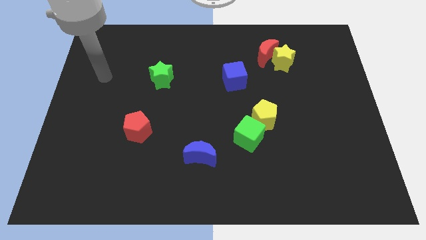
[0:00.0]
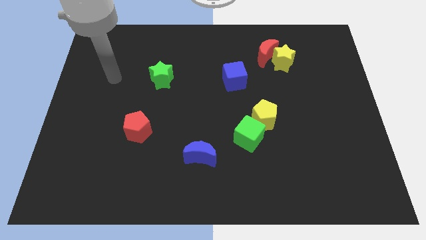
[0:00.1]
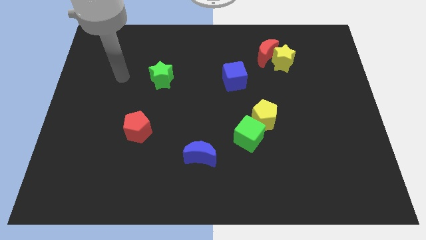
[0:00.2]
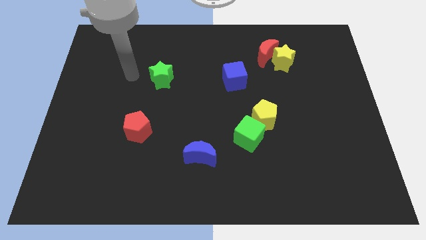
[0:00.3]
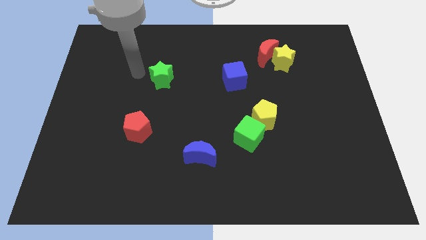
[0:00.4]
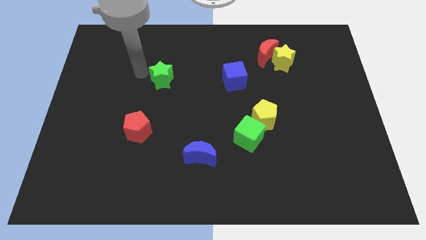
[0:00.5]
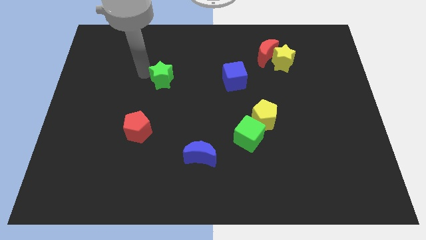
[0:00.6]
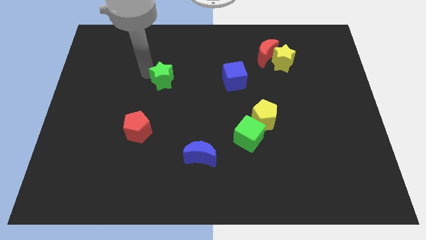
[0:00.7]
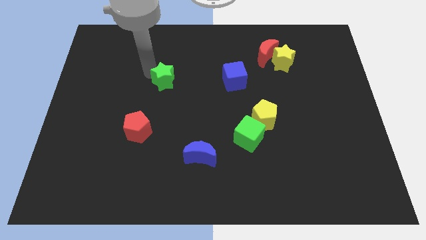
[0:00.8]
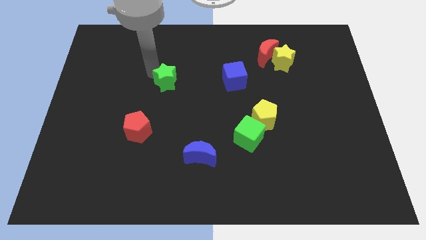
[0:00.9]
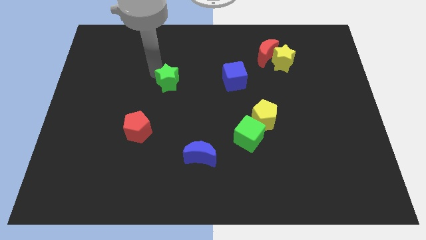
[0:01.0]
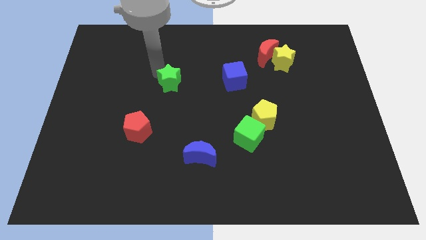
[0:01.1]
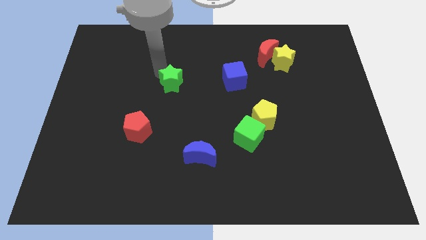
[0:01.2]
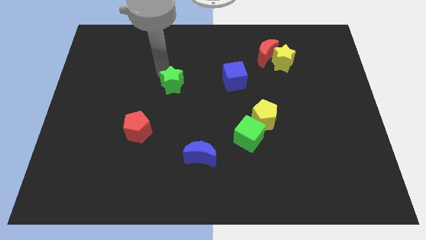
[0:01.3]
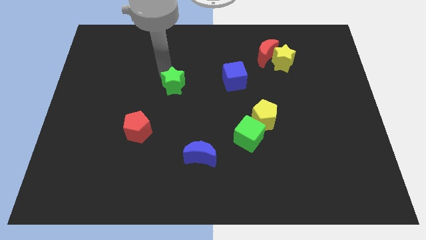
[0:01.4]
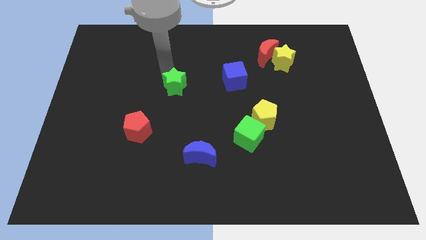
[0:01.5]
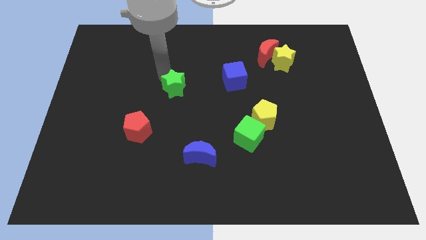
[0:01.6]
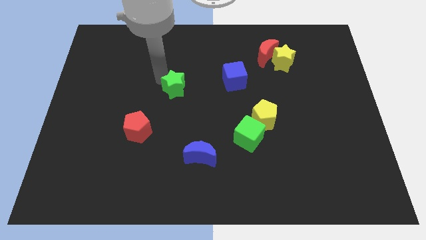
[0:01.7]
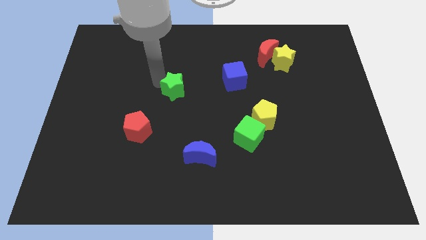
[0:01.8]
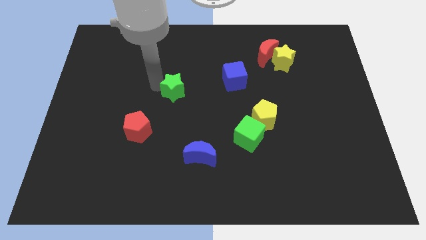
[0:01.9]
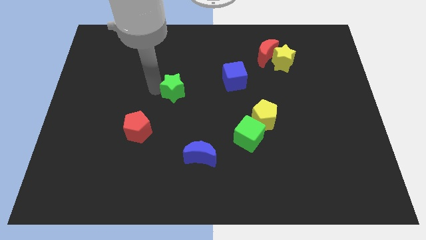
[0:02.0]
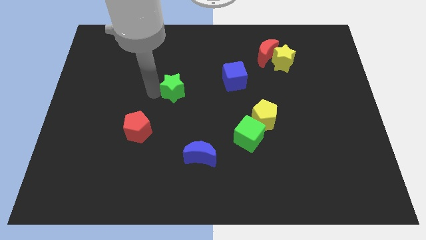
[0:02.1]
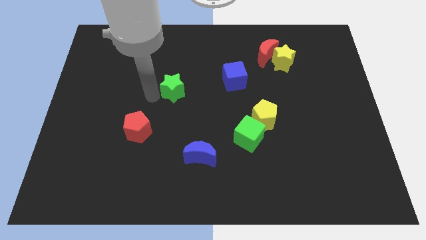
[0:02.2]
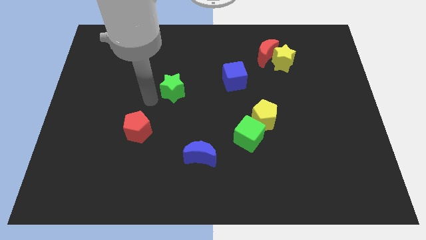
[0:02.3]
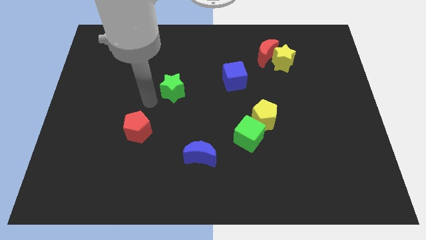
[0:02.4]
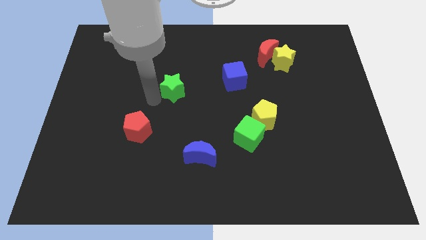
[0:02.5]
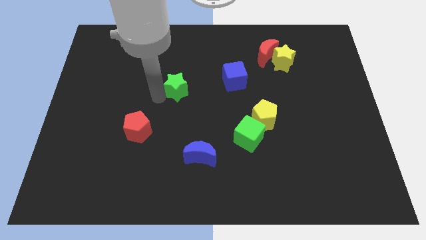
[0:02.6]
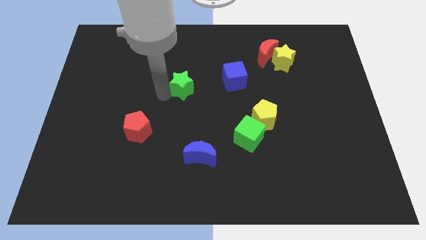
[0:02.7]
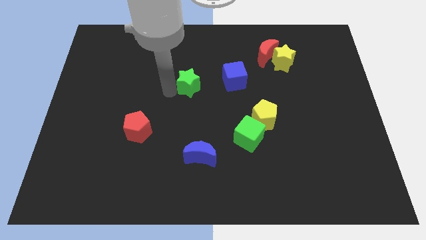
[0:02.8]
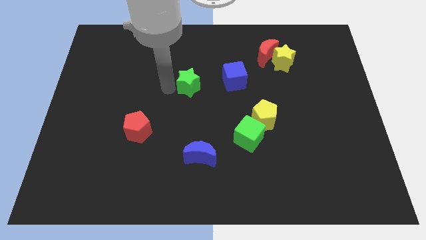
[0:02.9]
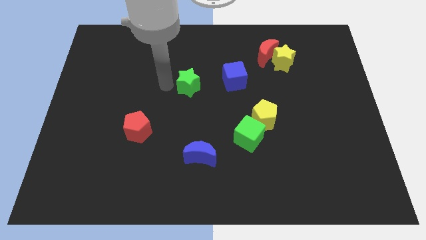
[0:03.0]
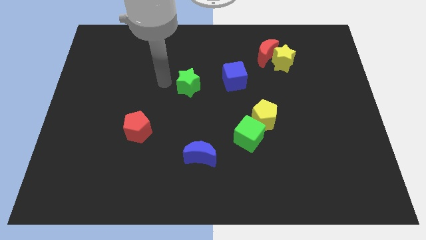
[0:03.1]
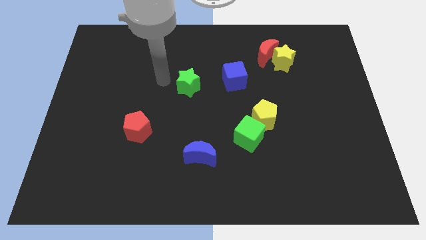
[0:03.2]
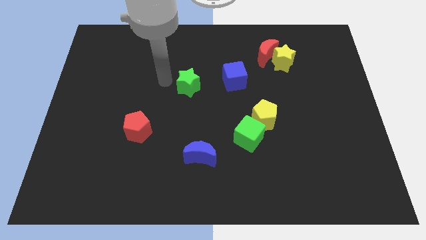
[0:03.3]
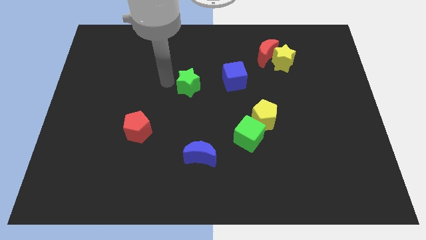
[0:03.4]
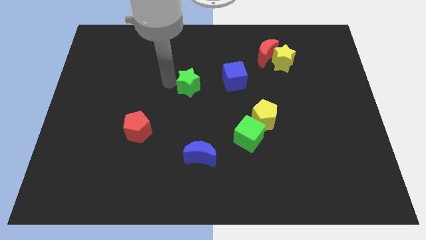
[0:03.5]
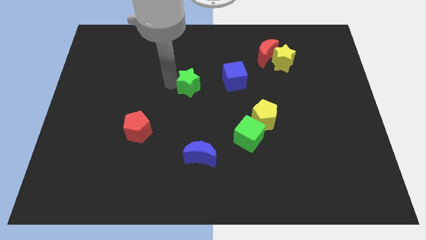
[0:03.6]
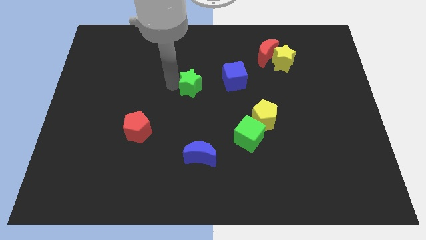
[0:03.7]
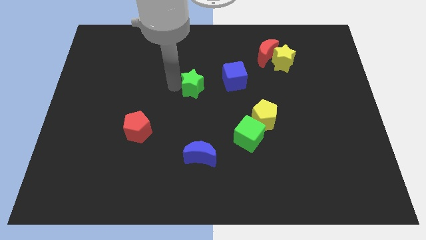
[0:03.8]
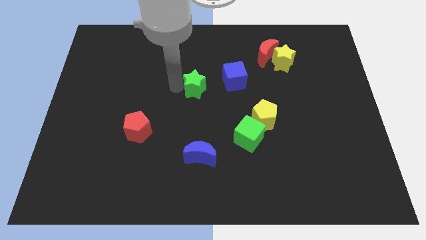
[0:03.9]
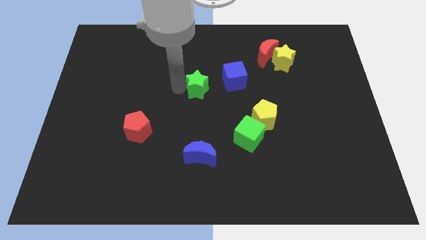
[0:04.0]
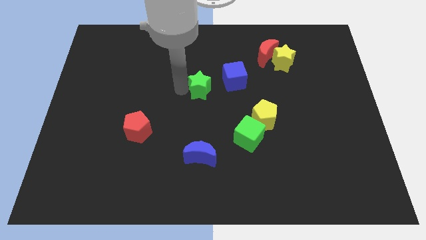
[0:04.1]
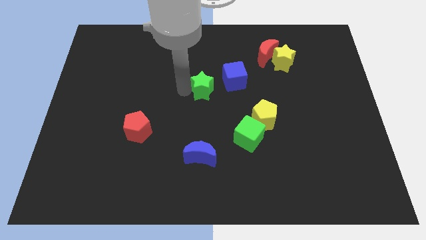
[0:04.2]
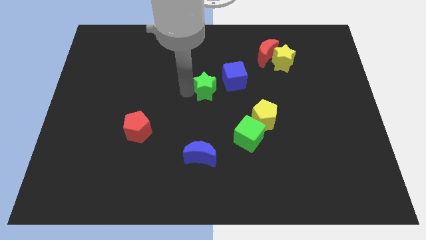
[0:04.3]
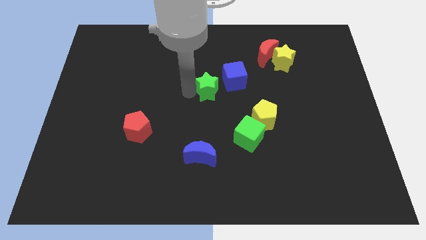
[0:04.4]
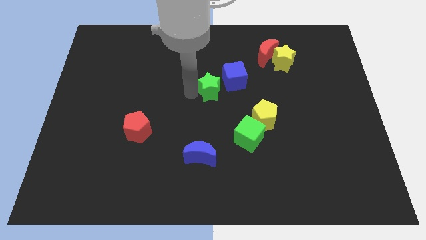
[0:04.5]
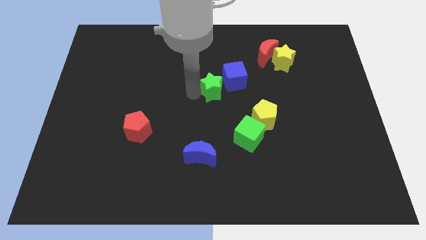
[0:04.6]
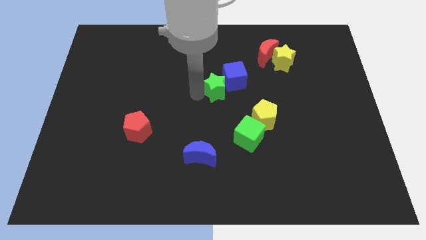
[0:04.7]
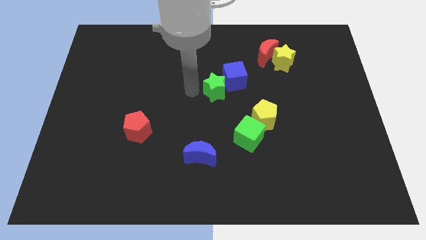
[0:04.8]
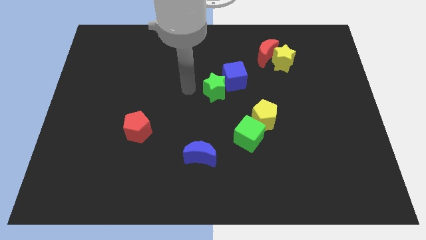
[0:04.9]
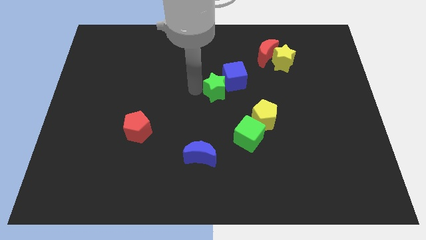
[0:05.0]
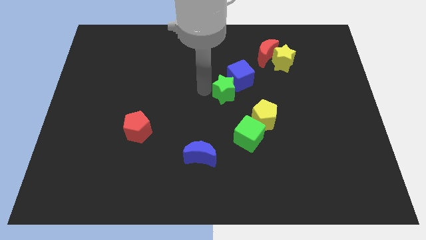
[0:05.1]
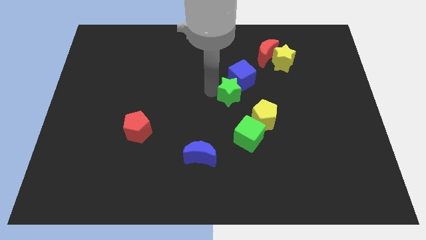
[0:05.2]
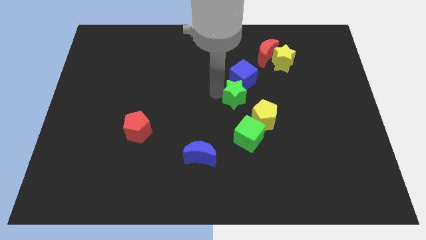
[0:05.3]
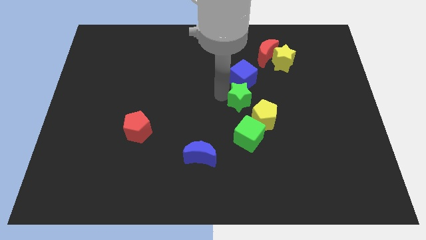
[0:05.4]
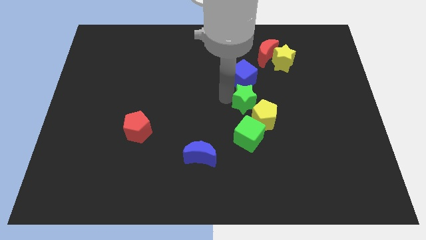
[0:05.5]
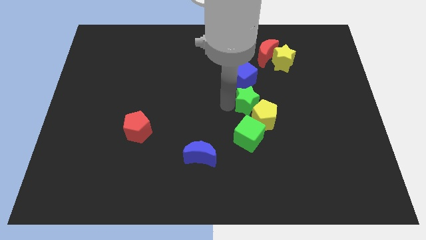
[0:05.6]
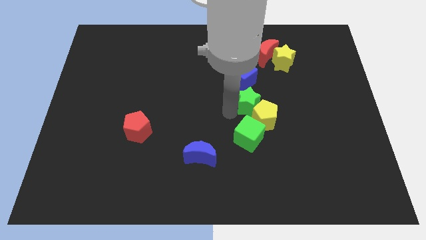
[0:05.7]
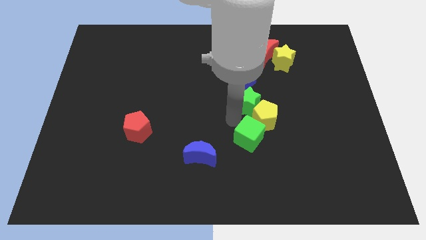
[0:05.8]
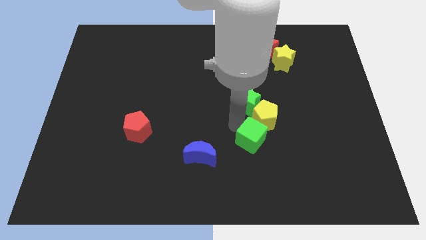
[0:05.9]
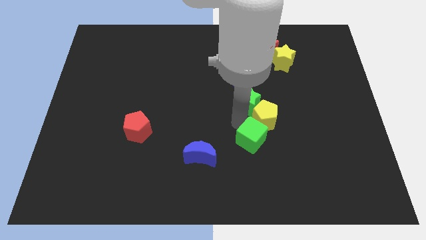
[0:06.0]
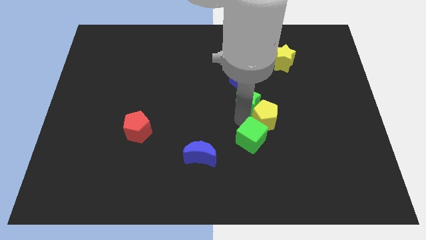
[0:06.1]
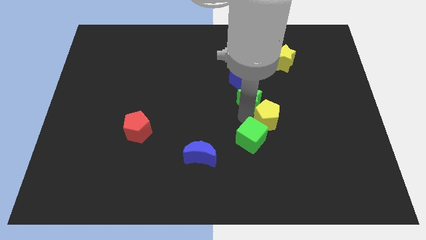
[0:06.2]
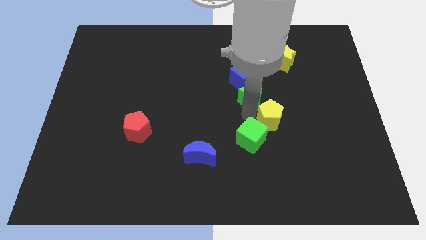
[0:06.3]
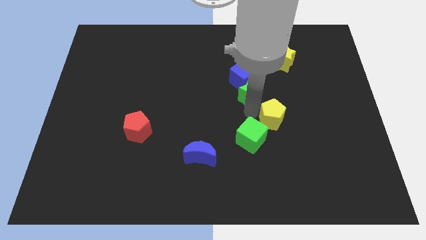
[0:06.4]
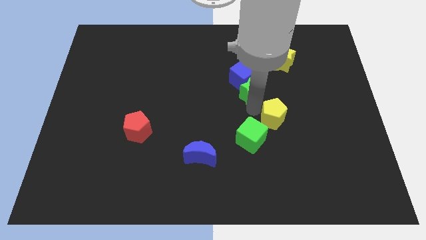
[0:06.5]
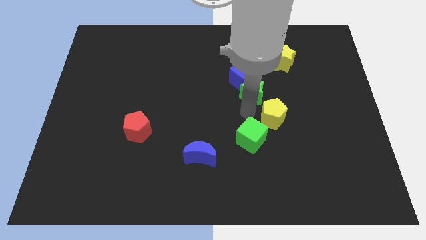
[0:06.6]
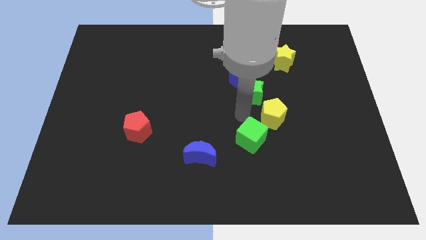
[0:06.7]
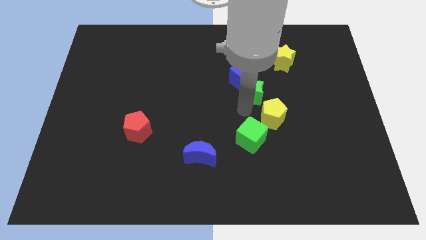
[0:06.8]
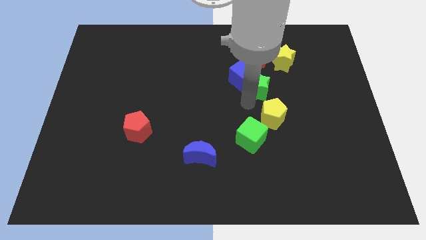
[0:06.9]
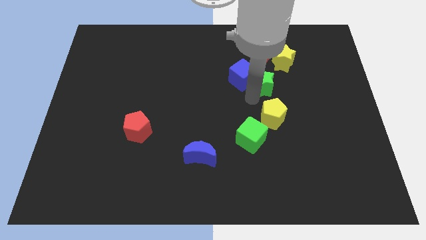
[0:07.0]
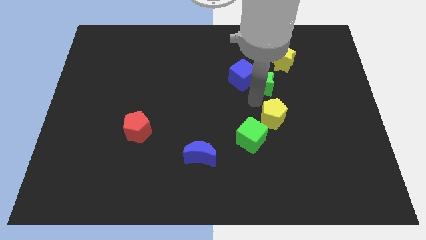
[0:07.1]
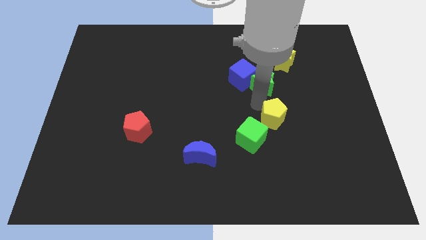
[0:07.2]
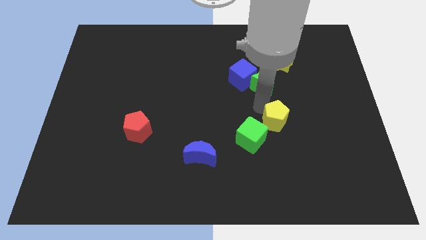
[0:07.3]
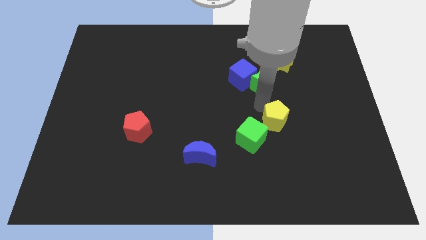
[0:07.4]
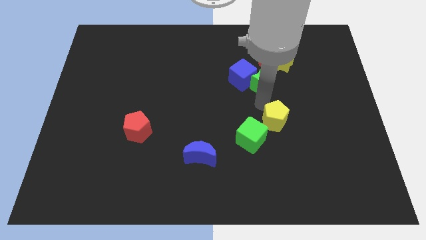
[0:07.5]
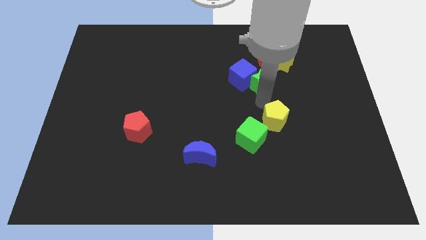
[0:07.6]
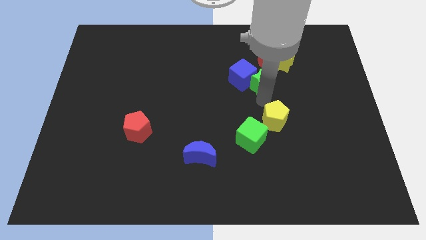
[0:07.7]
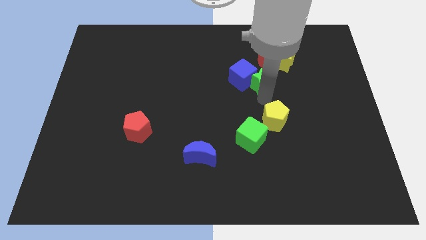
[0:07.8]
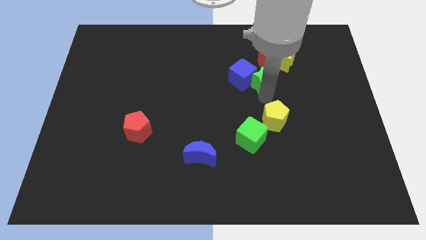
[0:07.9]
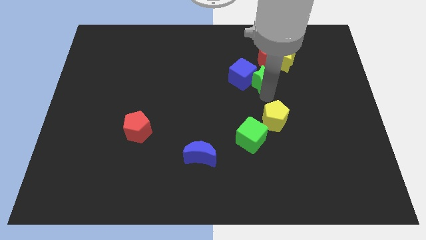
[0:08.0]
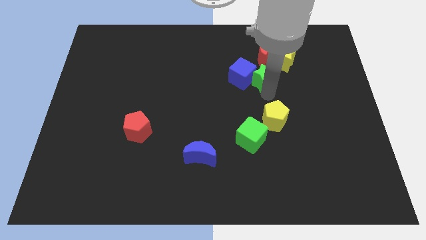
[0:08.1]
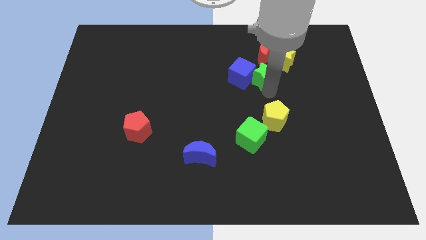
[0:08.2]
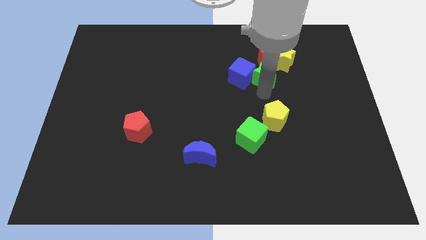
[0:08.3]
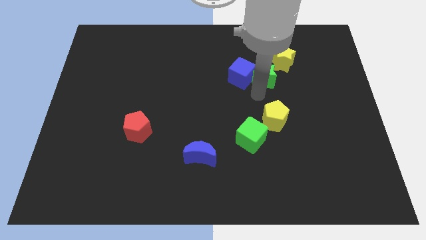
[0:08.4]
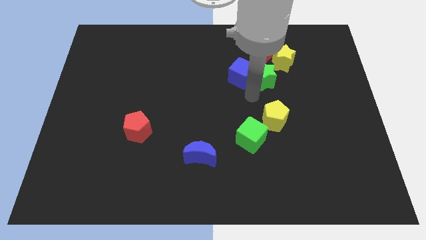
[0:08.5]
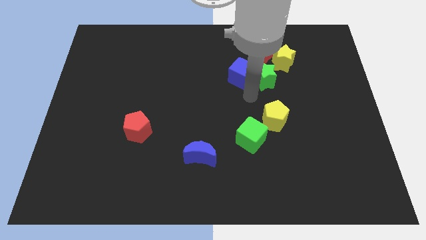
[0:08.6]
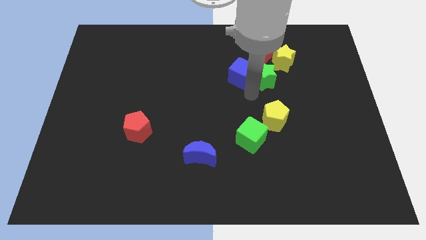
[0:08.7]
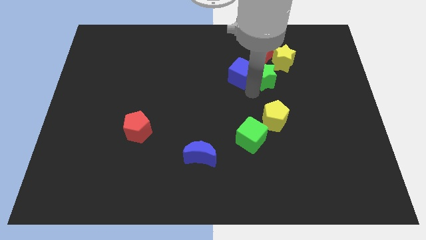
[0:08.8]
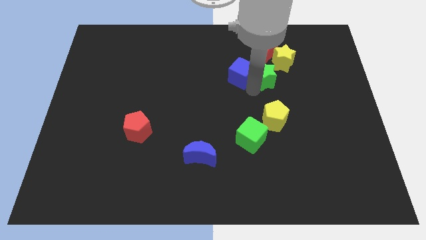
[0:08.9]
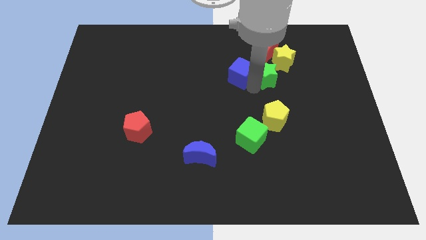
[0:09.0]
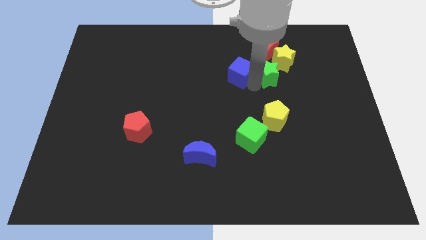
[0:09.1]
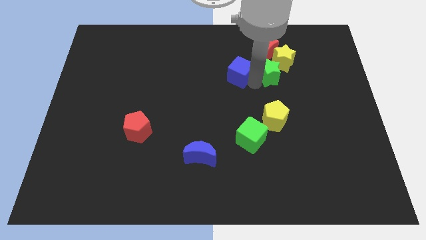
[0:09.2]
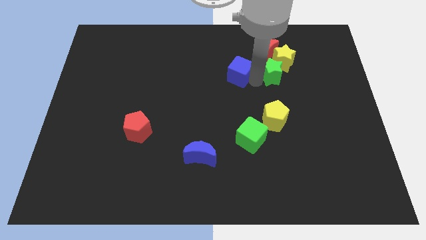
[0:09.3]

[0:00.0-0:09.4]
put the green star close to the yellow star
